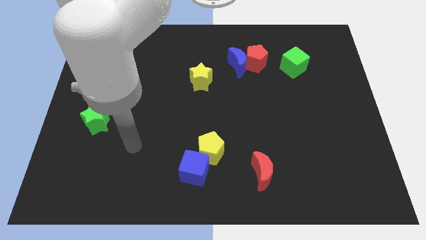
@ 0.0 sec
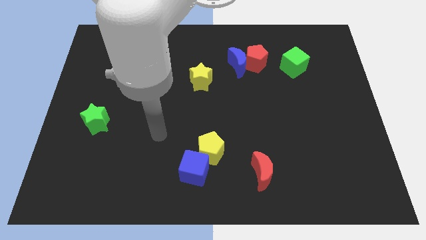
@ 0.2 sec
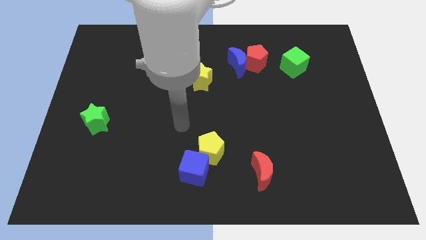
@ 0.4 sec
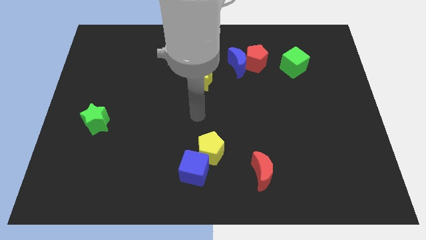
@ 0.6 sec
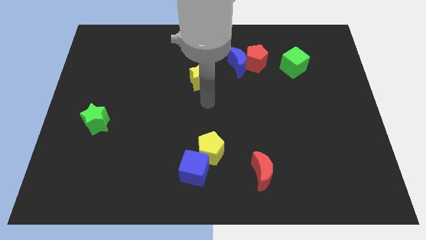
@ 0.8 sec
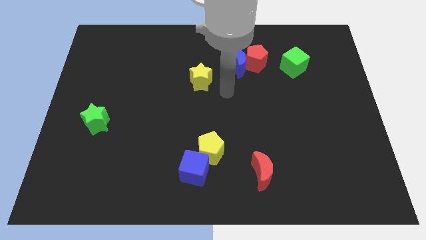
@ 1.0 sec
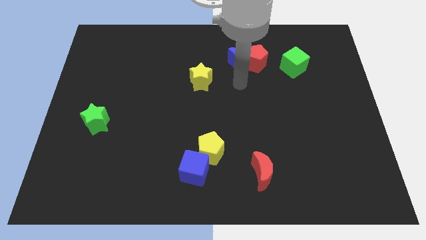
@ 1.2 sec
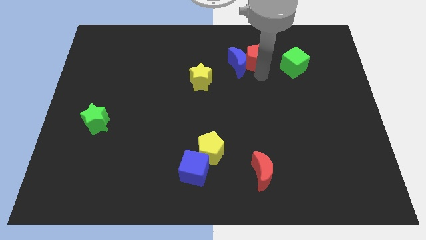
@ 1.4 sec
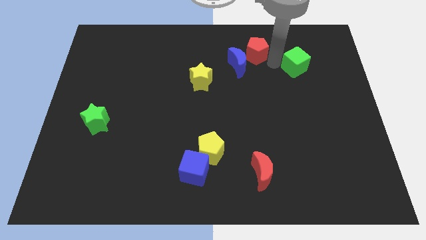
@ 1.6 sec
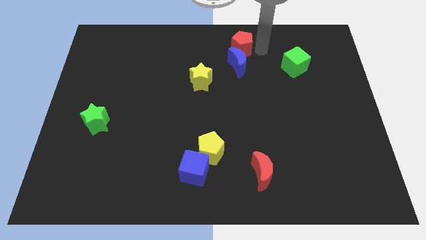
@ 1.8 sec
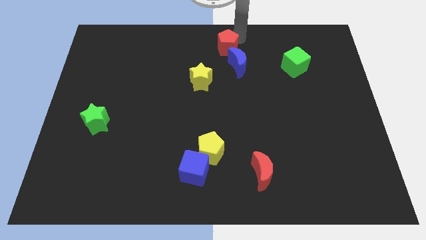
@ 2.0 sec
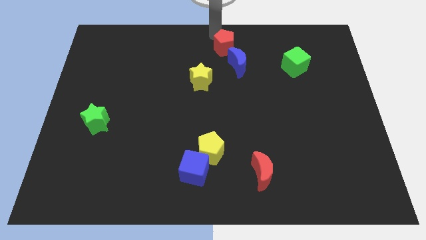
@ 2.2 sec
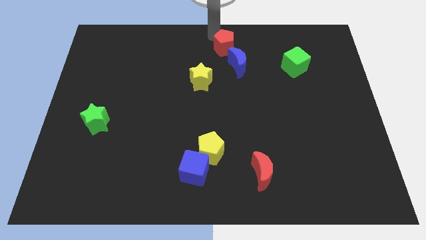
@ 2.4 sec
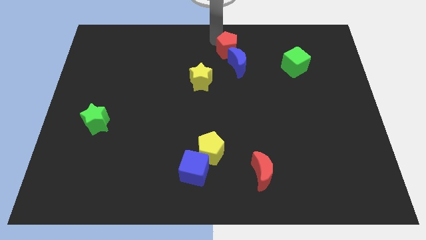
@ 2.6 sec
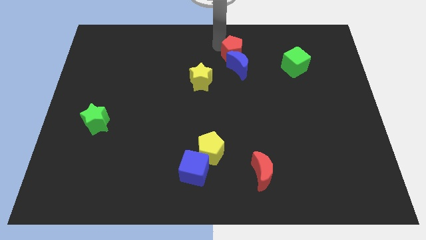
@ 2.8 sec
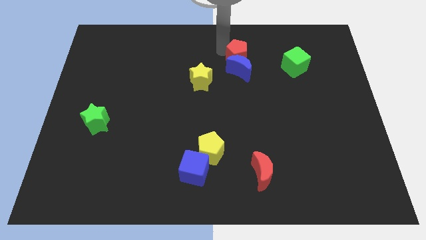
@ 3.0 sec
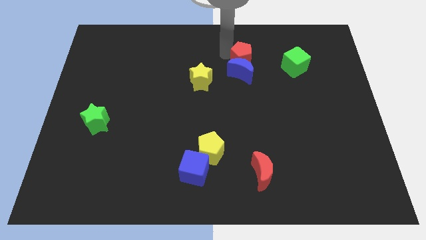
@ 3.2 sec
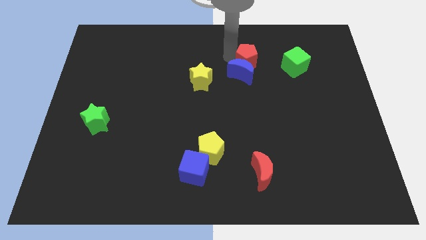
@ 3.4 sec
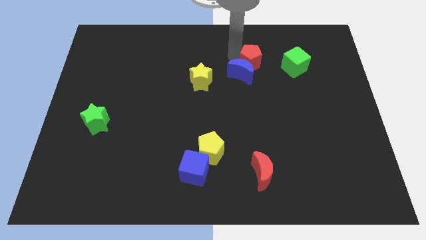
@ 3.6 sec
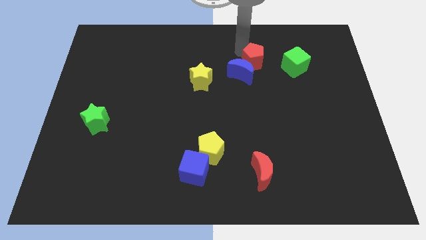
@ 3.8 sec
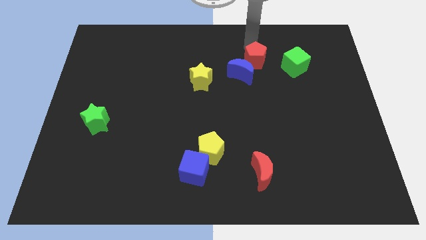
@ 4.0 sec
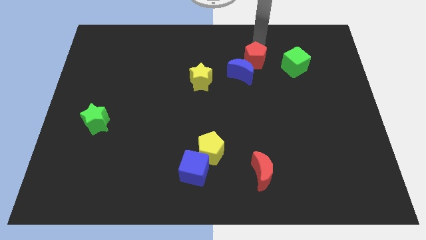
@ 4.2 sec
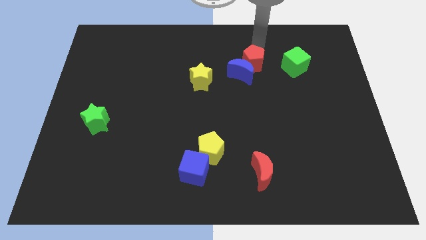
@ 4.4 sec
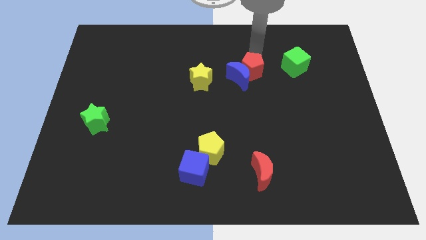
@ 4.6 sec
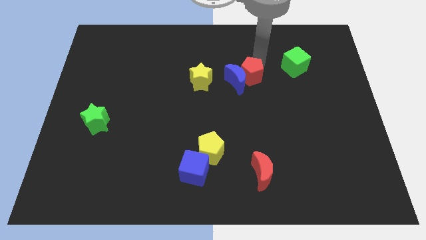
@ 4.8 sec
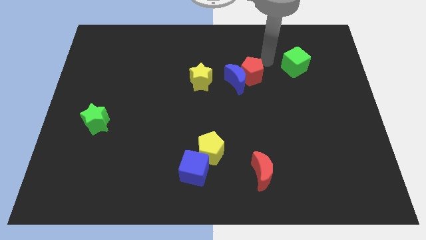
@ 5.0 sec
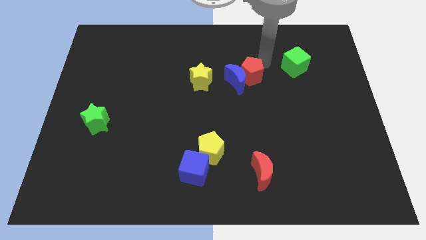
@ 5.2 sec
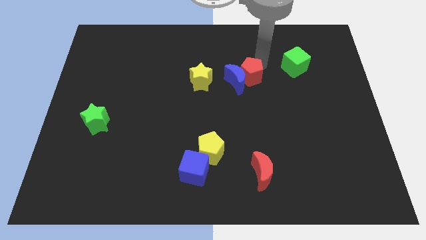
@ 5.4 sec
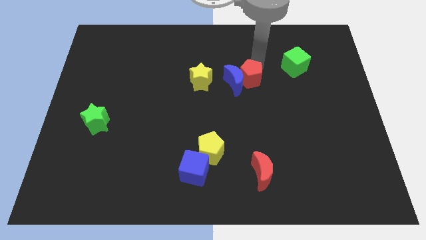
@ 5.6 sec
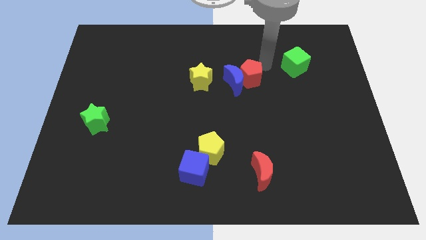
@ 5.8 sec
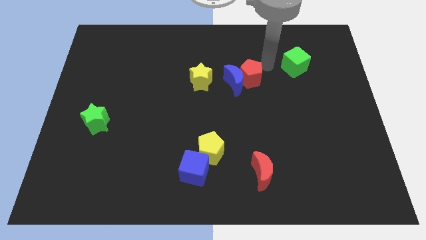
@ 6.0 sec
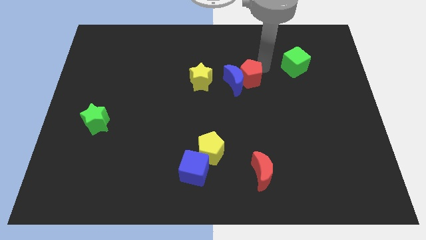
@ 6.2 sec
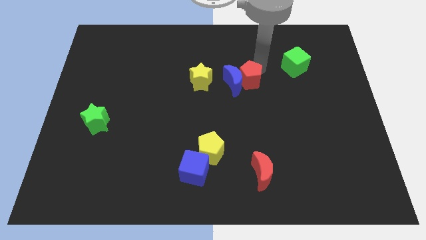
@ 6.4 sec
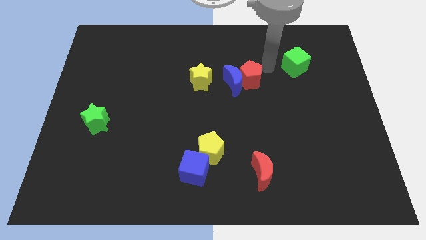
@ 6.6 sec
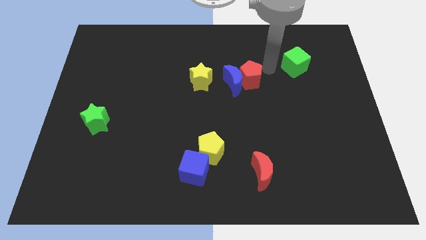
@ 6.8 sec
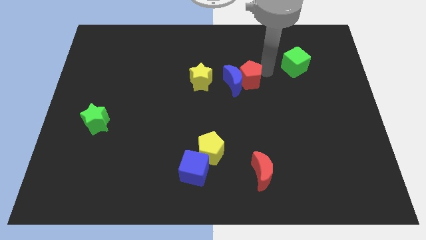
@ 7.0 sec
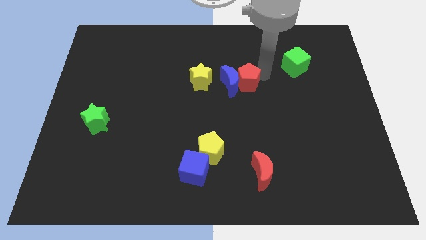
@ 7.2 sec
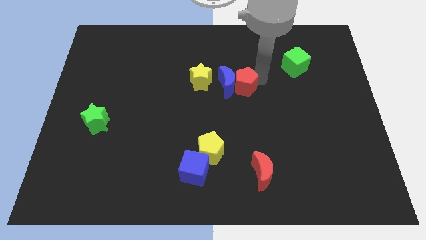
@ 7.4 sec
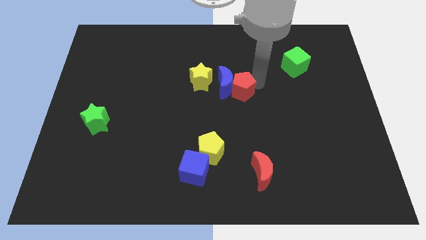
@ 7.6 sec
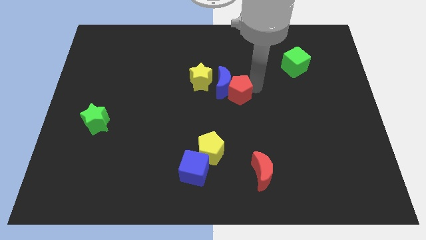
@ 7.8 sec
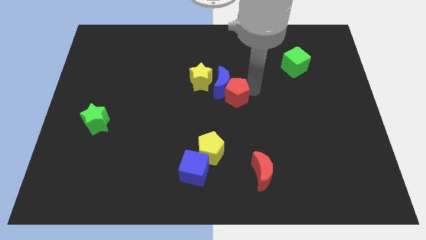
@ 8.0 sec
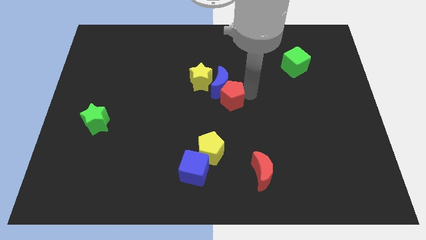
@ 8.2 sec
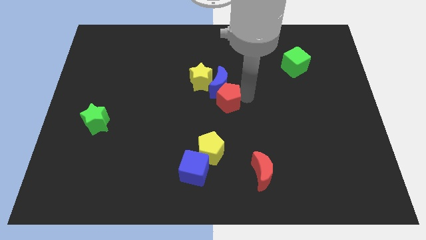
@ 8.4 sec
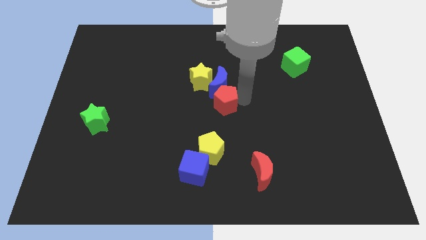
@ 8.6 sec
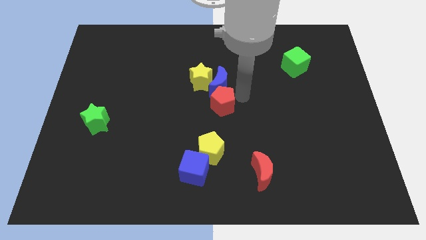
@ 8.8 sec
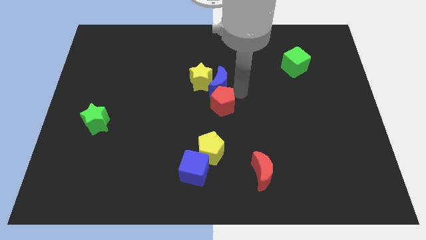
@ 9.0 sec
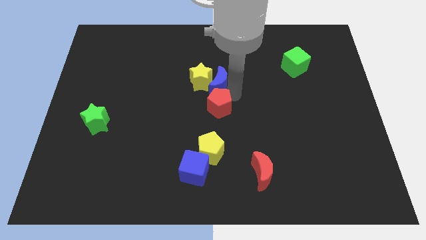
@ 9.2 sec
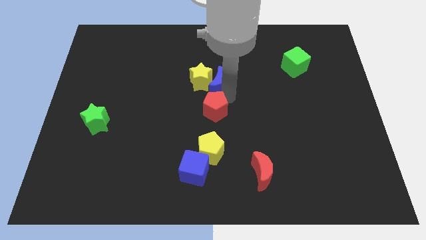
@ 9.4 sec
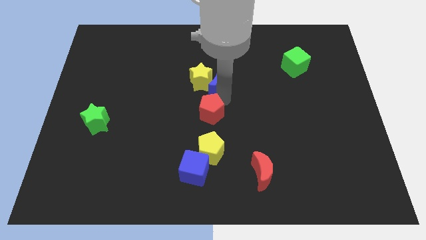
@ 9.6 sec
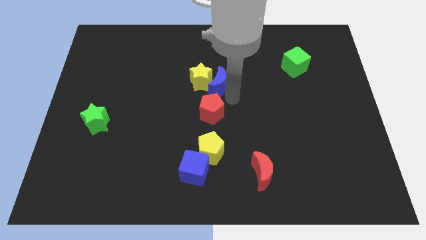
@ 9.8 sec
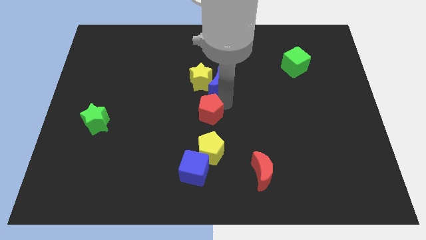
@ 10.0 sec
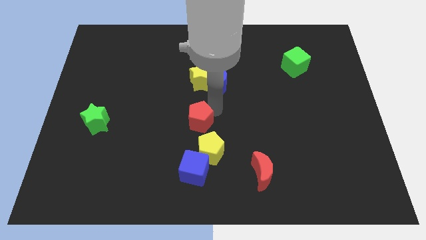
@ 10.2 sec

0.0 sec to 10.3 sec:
put the red pentagon diagonally up and to the left of the yellow pentagon

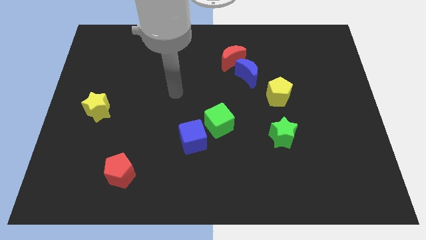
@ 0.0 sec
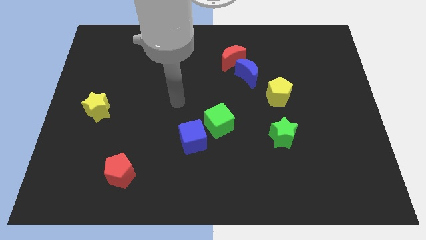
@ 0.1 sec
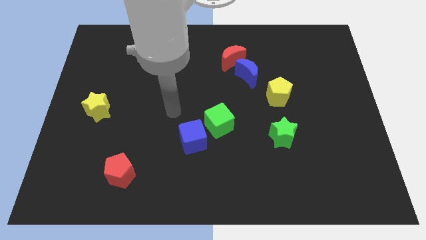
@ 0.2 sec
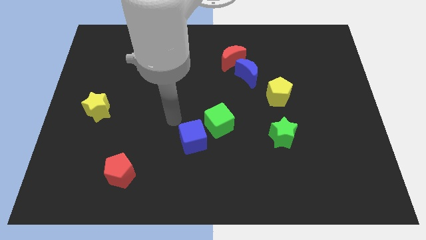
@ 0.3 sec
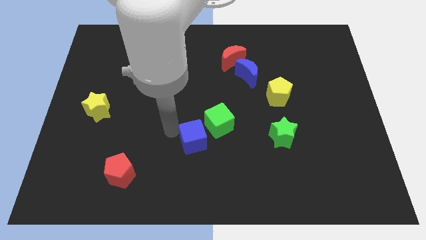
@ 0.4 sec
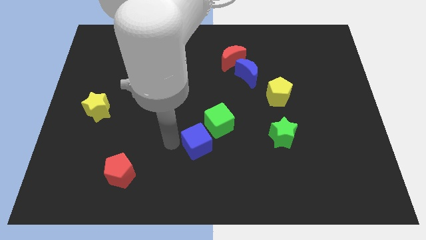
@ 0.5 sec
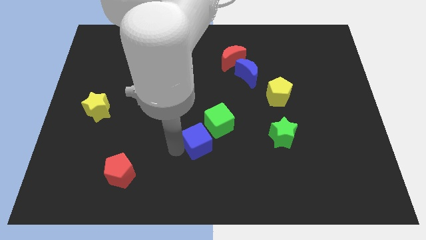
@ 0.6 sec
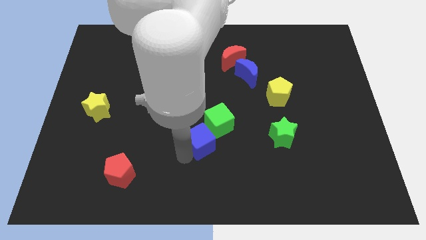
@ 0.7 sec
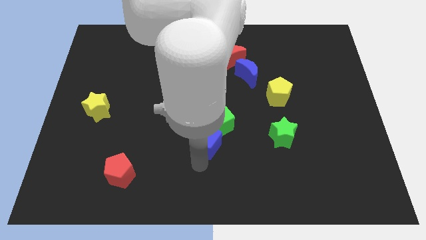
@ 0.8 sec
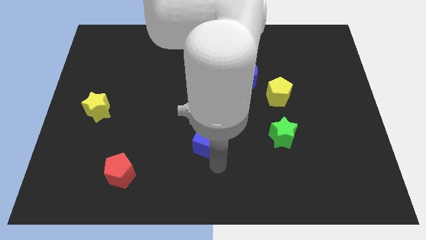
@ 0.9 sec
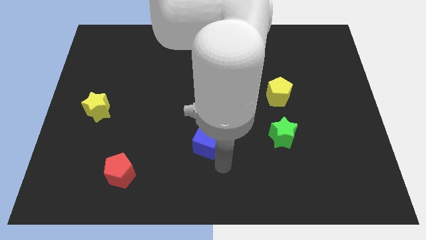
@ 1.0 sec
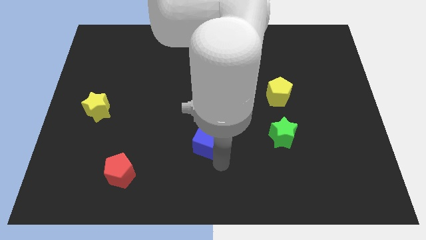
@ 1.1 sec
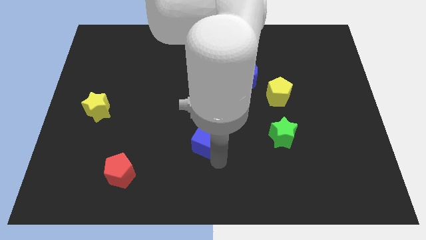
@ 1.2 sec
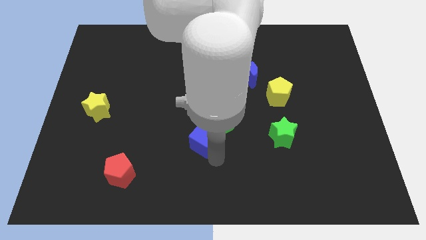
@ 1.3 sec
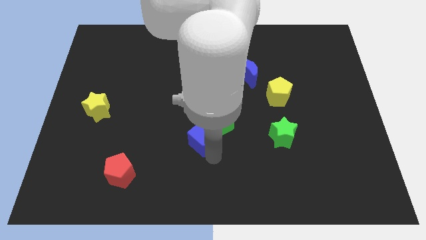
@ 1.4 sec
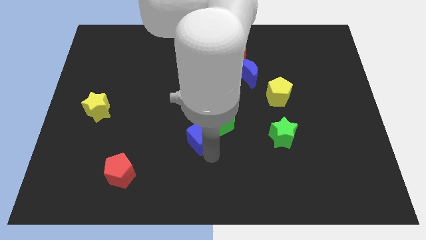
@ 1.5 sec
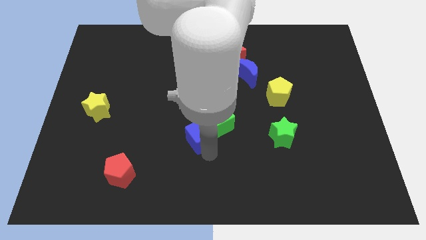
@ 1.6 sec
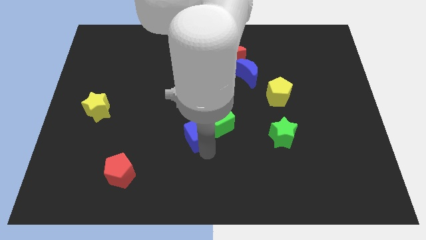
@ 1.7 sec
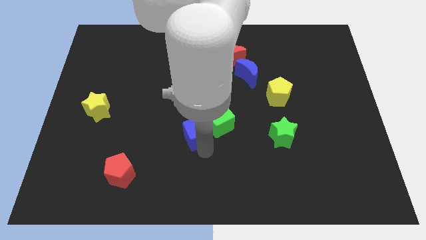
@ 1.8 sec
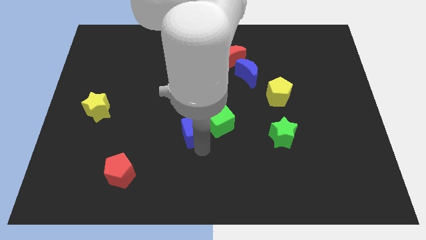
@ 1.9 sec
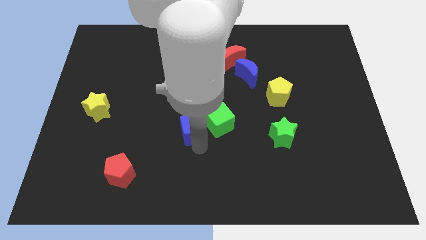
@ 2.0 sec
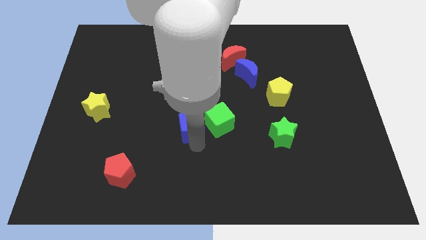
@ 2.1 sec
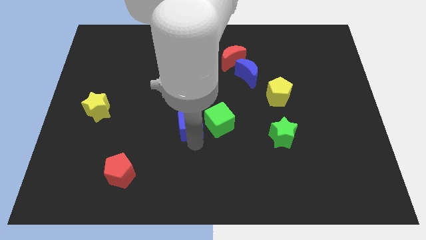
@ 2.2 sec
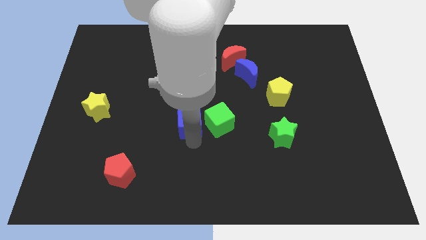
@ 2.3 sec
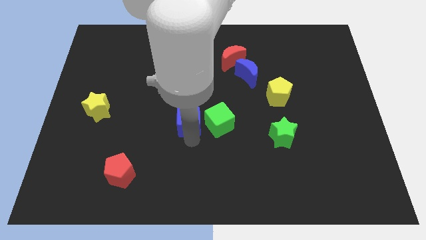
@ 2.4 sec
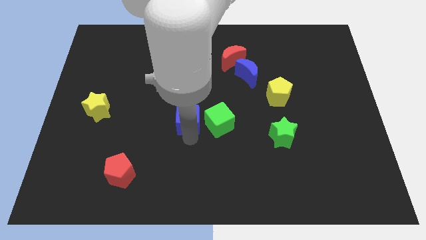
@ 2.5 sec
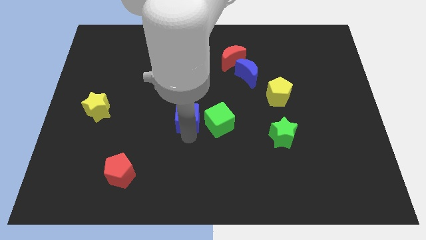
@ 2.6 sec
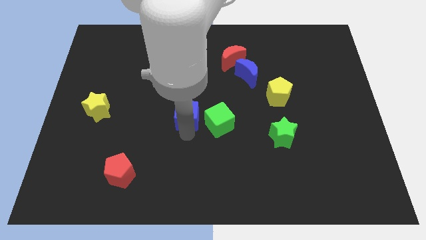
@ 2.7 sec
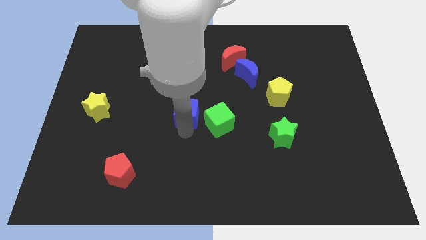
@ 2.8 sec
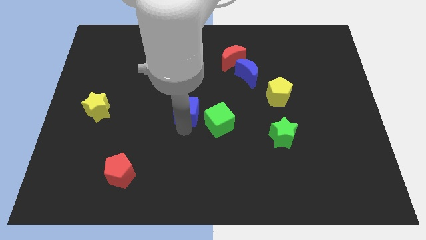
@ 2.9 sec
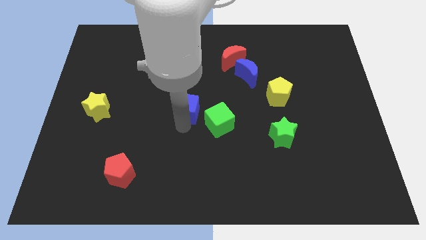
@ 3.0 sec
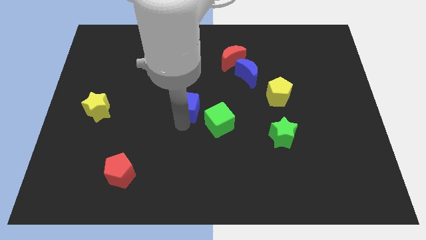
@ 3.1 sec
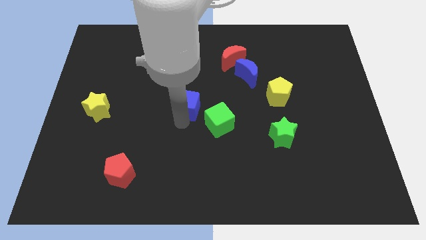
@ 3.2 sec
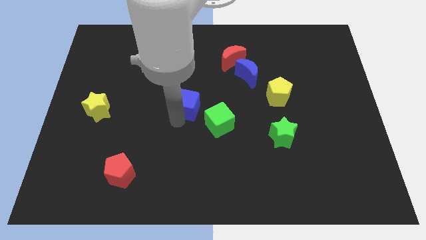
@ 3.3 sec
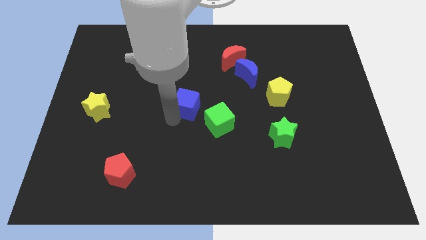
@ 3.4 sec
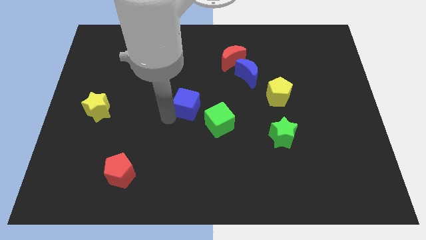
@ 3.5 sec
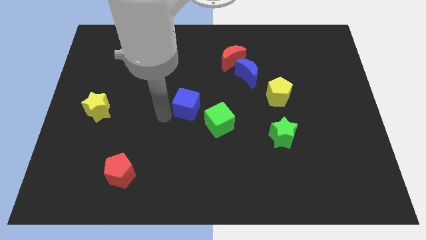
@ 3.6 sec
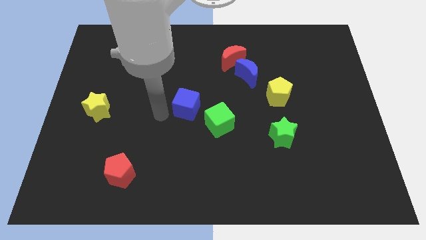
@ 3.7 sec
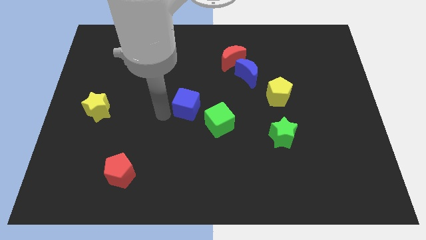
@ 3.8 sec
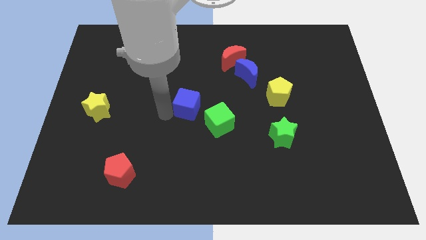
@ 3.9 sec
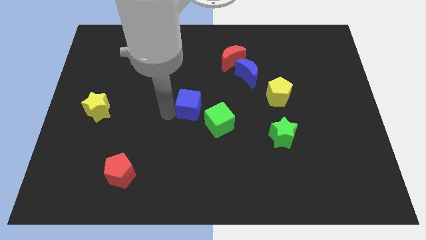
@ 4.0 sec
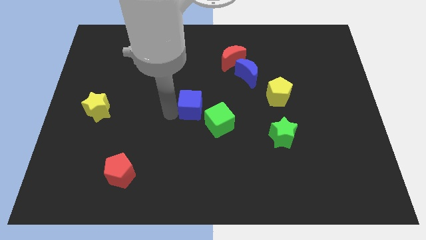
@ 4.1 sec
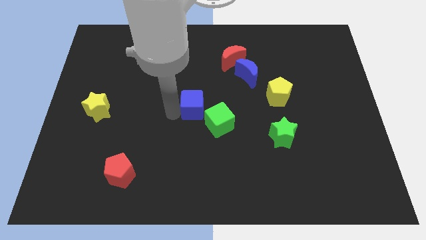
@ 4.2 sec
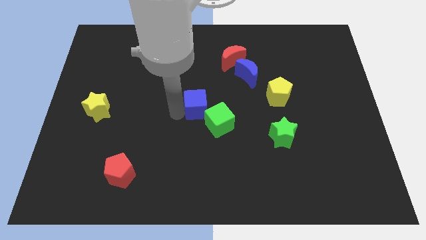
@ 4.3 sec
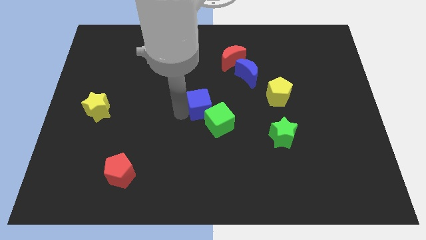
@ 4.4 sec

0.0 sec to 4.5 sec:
push the blue cube to the top of the green cube
